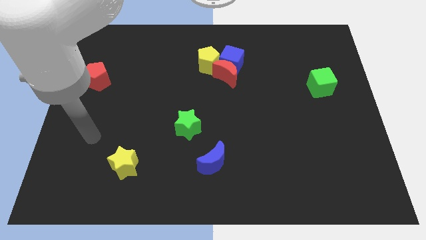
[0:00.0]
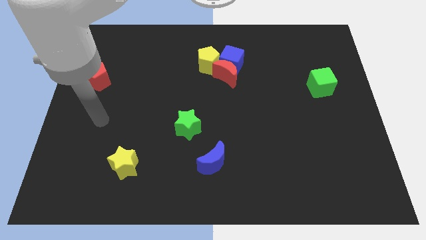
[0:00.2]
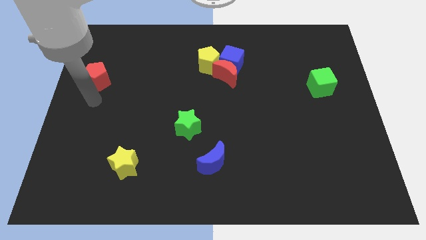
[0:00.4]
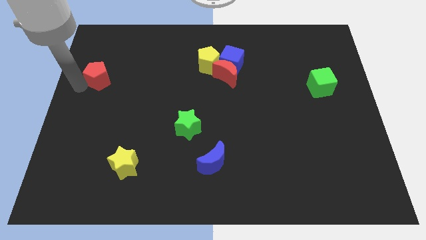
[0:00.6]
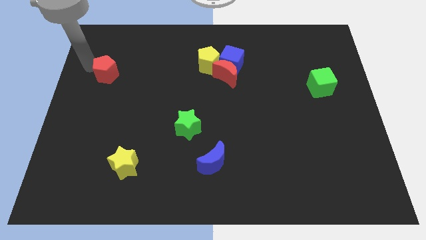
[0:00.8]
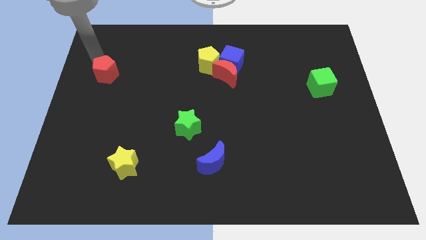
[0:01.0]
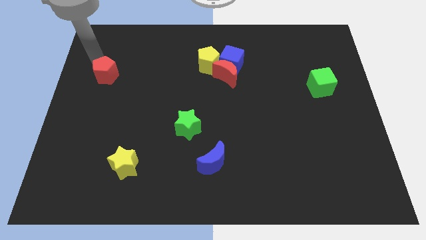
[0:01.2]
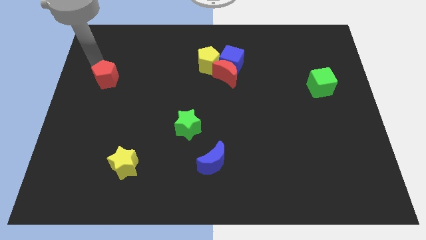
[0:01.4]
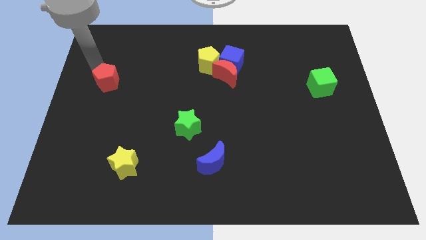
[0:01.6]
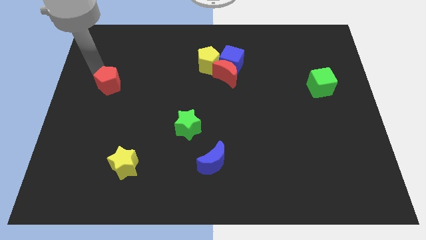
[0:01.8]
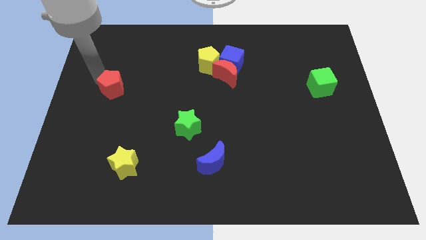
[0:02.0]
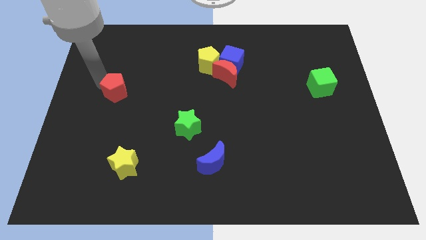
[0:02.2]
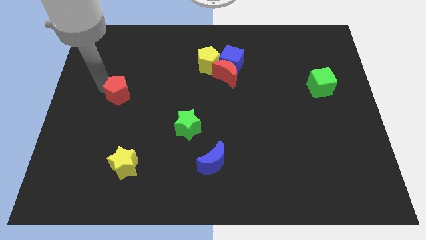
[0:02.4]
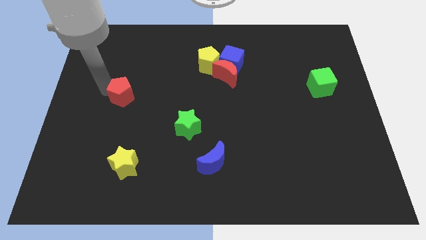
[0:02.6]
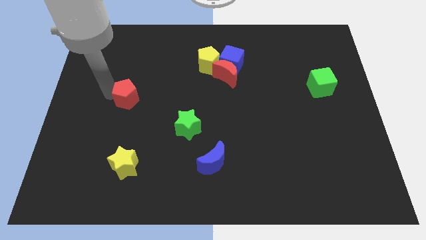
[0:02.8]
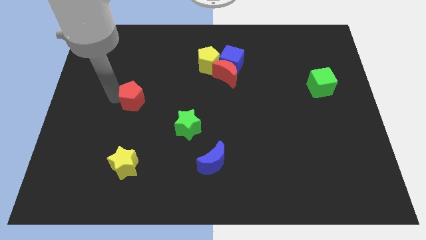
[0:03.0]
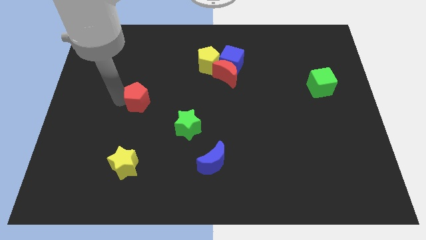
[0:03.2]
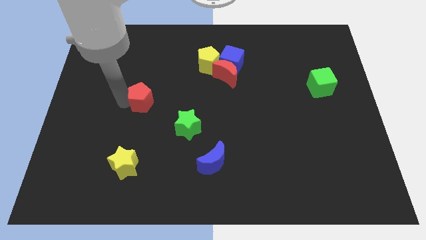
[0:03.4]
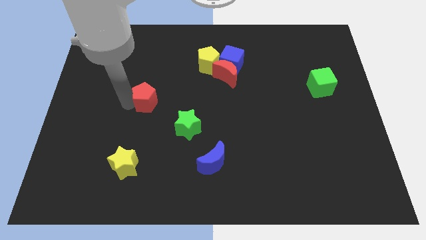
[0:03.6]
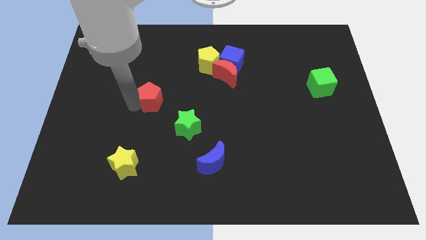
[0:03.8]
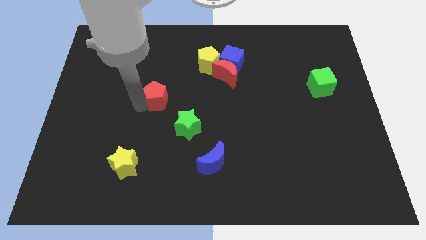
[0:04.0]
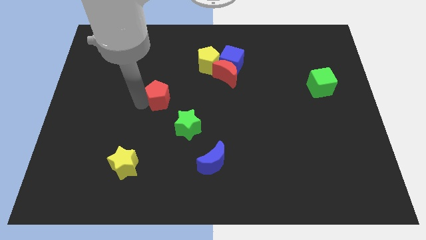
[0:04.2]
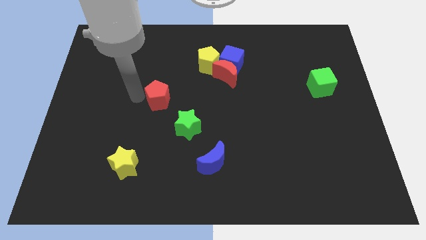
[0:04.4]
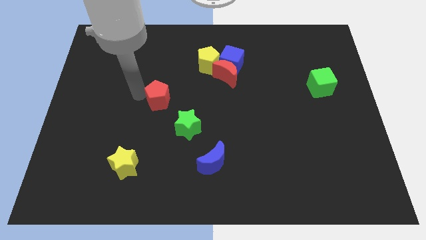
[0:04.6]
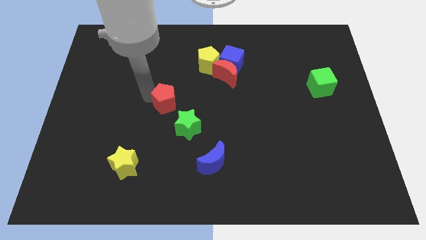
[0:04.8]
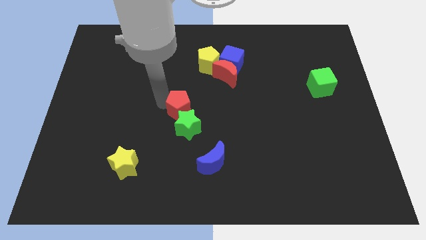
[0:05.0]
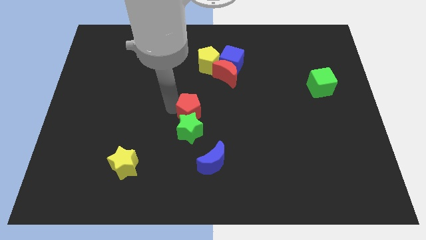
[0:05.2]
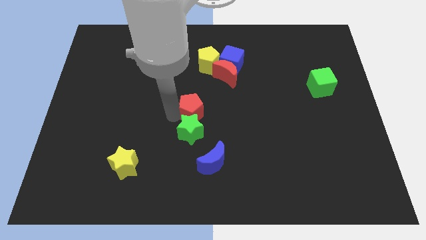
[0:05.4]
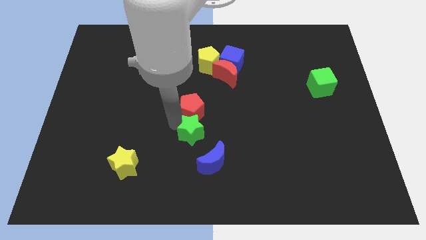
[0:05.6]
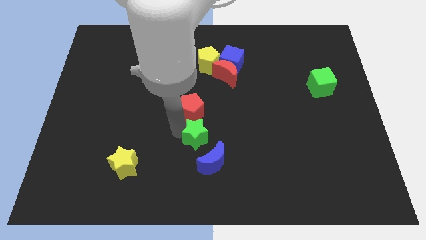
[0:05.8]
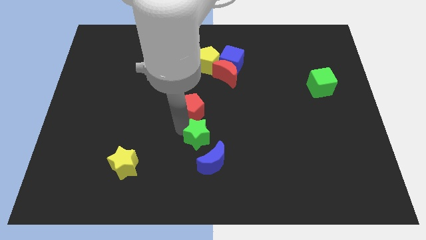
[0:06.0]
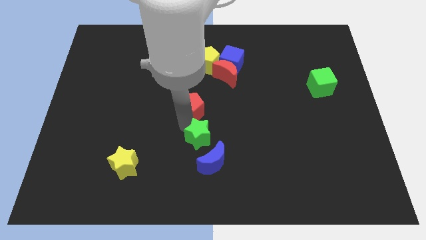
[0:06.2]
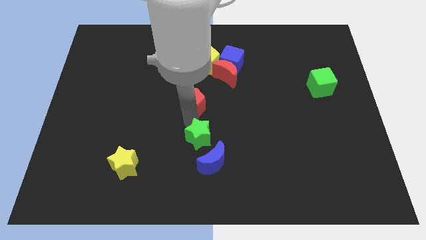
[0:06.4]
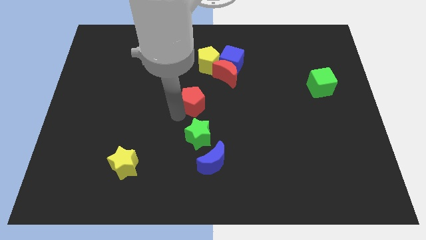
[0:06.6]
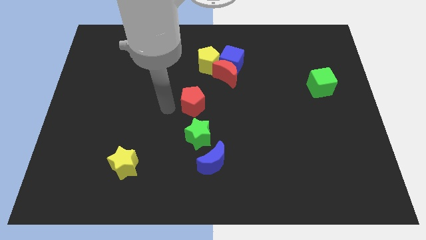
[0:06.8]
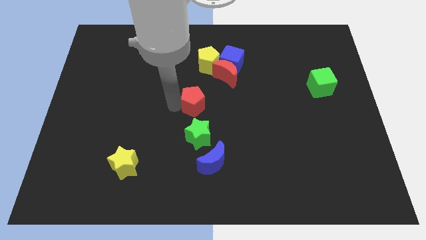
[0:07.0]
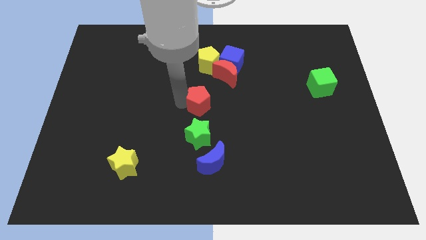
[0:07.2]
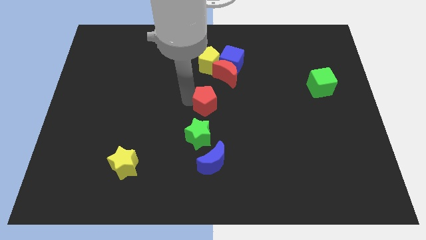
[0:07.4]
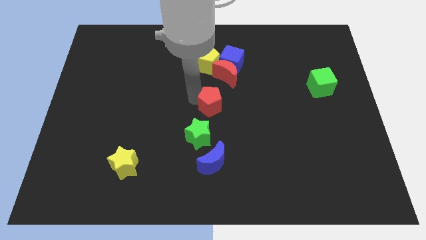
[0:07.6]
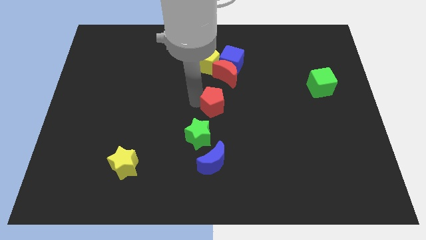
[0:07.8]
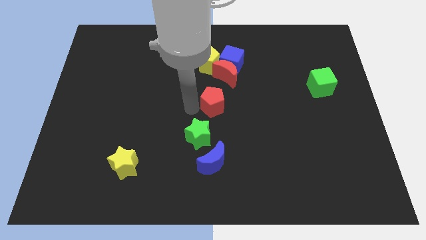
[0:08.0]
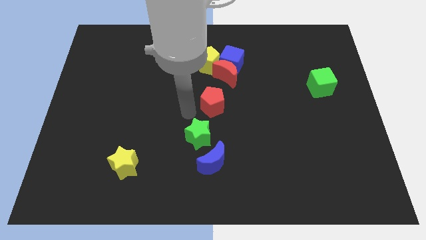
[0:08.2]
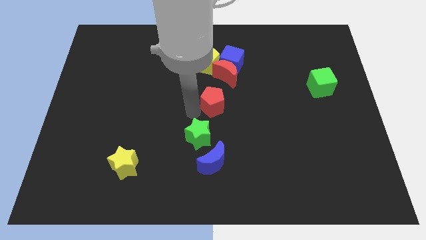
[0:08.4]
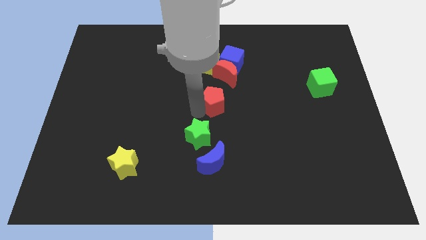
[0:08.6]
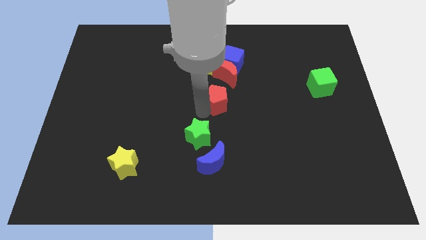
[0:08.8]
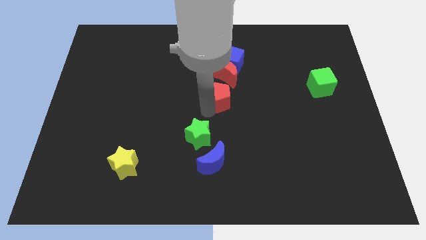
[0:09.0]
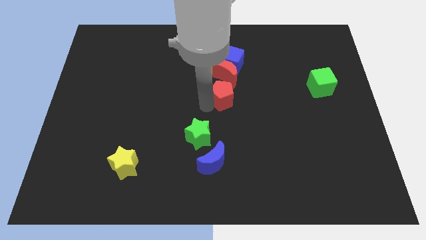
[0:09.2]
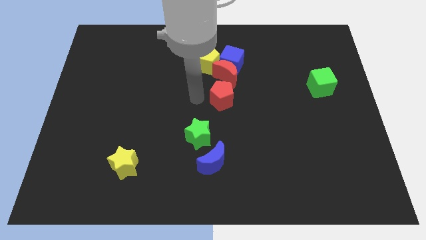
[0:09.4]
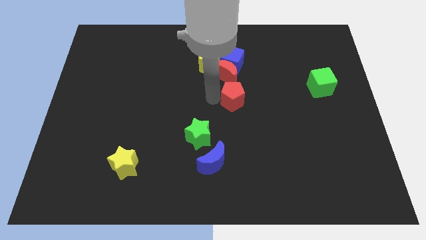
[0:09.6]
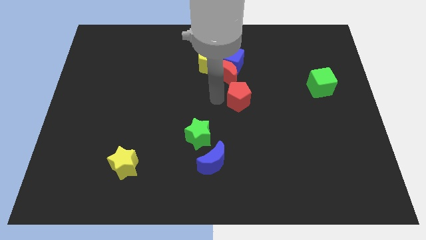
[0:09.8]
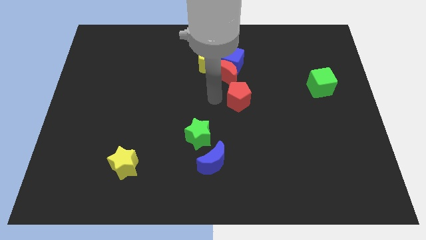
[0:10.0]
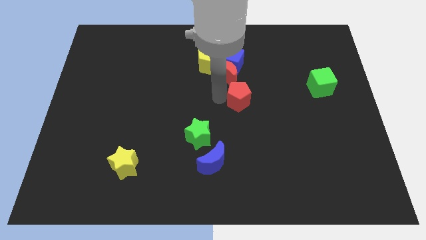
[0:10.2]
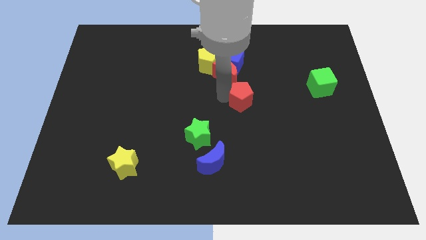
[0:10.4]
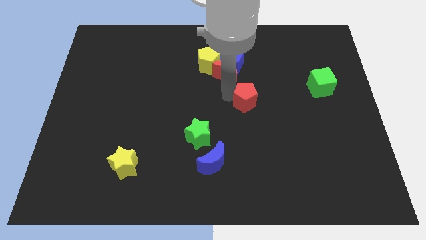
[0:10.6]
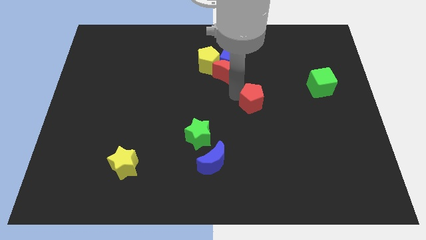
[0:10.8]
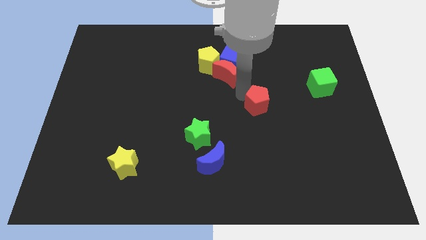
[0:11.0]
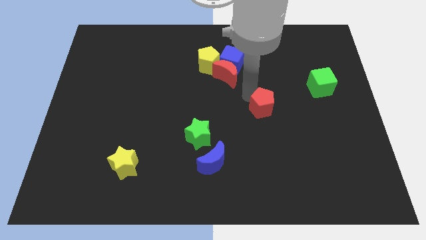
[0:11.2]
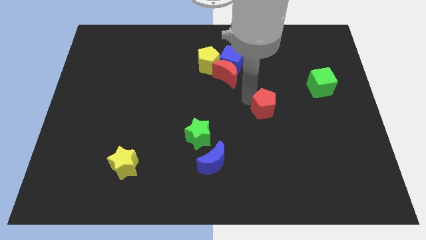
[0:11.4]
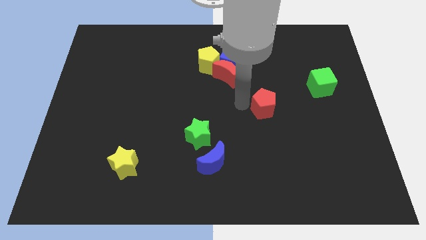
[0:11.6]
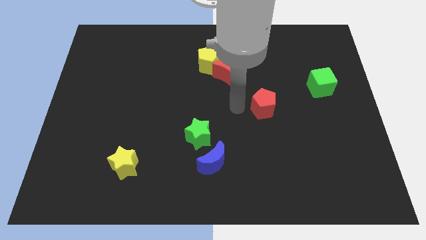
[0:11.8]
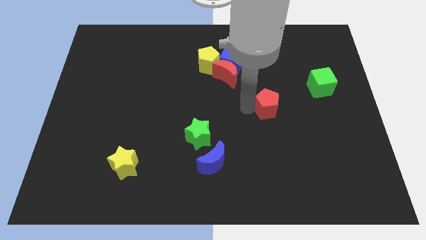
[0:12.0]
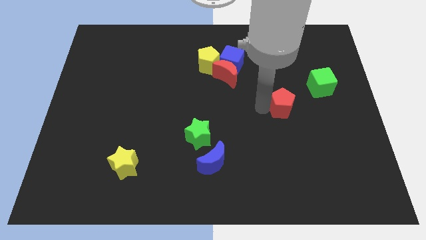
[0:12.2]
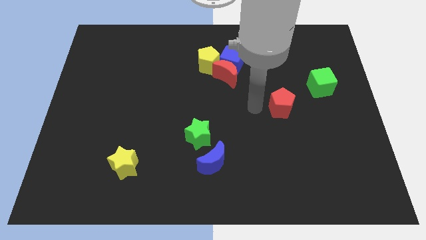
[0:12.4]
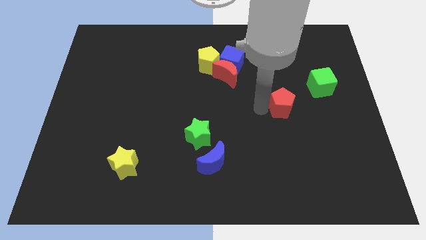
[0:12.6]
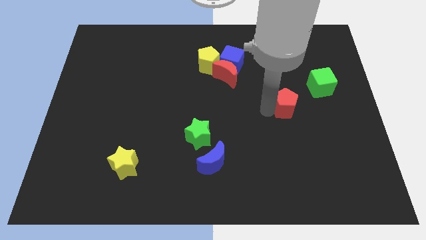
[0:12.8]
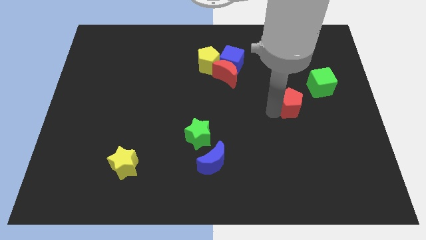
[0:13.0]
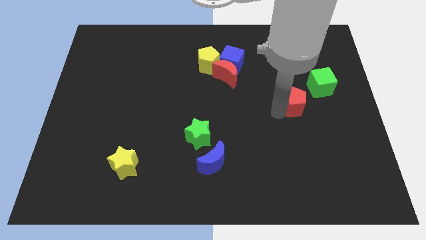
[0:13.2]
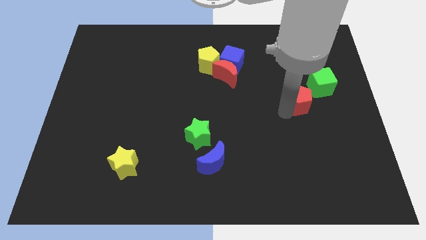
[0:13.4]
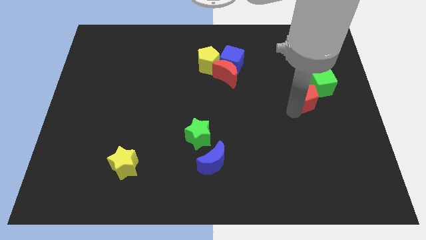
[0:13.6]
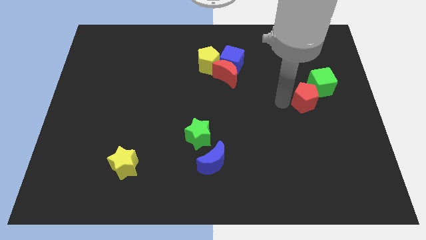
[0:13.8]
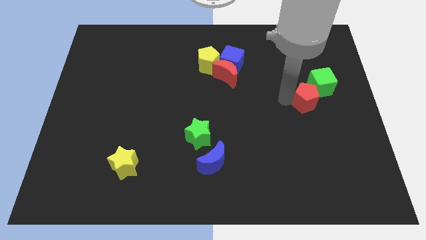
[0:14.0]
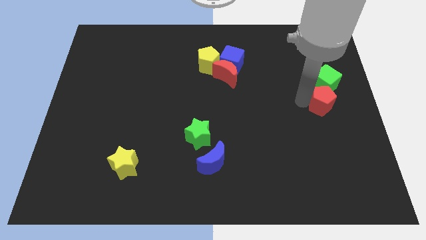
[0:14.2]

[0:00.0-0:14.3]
slide the red pentagon to the right side
